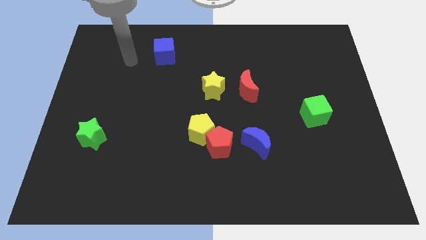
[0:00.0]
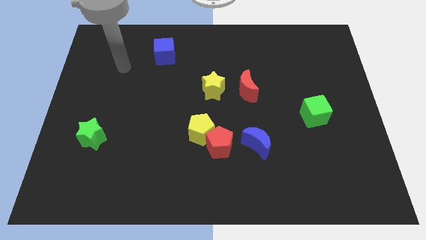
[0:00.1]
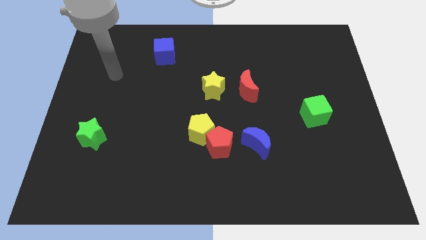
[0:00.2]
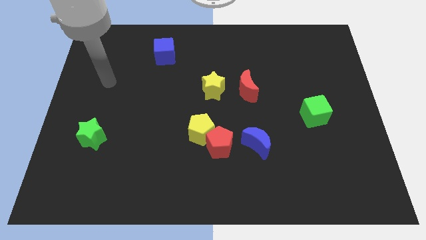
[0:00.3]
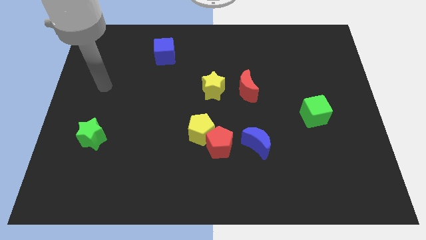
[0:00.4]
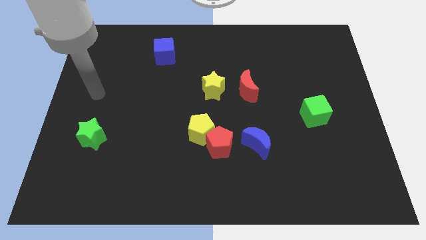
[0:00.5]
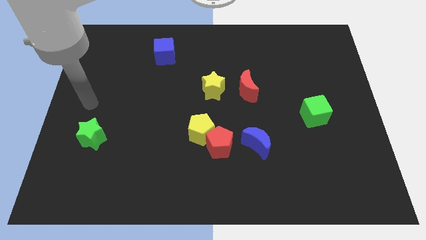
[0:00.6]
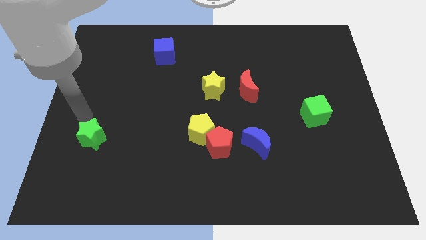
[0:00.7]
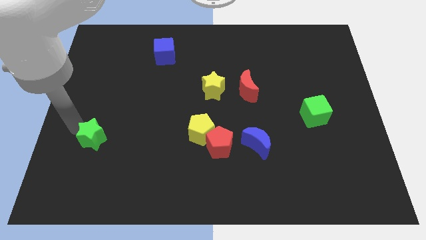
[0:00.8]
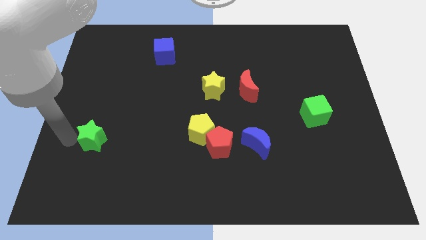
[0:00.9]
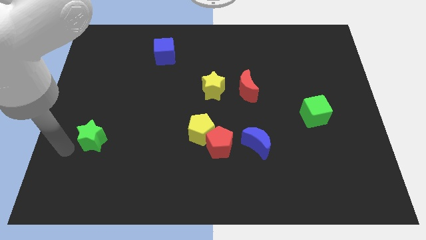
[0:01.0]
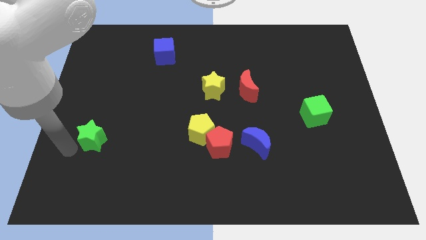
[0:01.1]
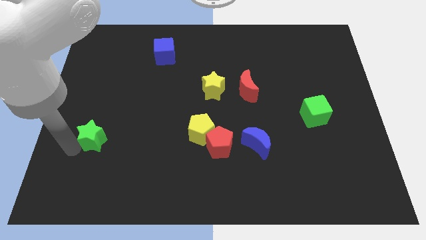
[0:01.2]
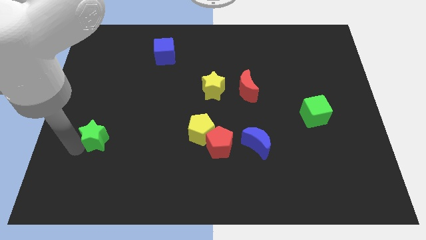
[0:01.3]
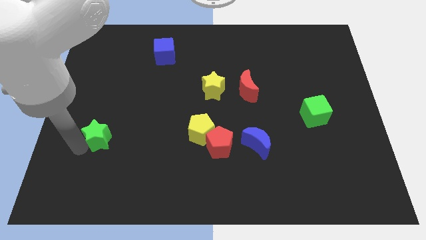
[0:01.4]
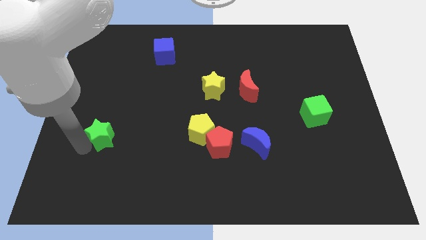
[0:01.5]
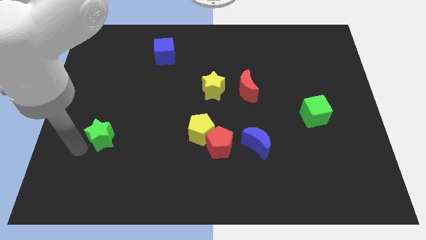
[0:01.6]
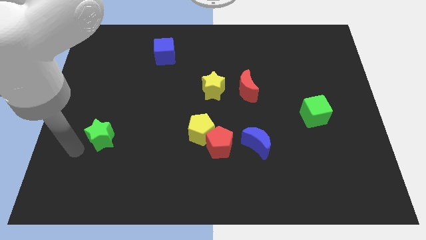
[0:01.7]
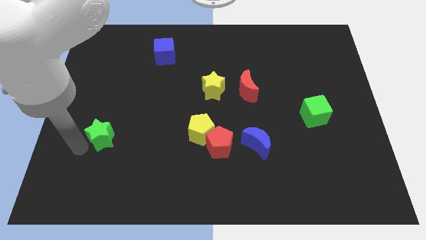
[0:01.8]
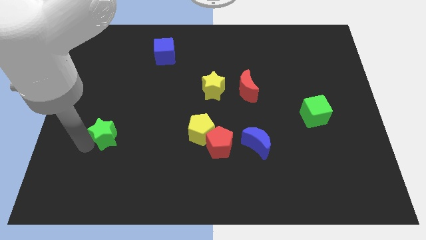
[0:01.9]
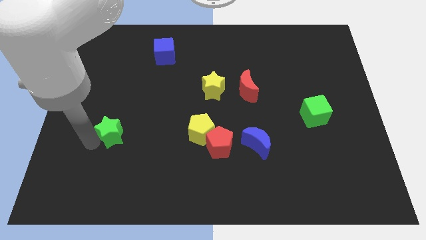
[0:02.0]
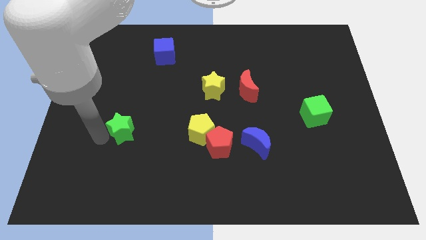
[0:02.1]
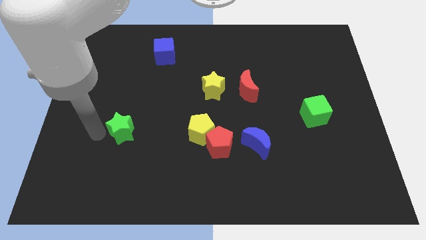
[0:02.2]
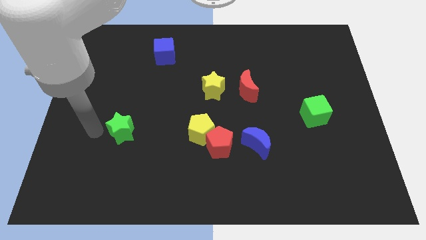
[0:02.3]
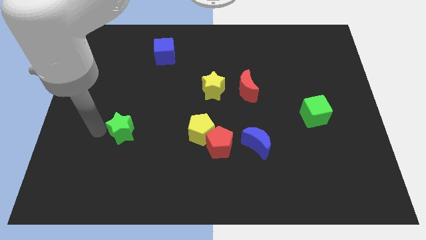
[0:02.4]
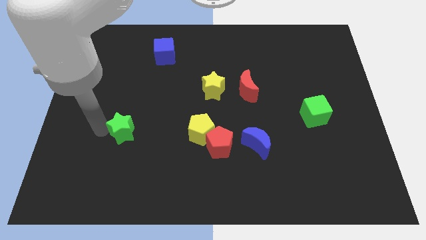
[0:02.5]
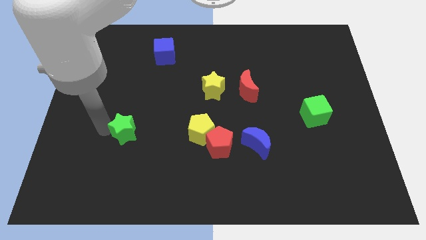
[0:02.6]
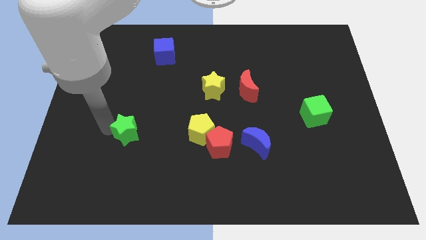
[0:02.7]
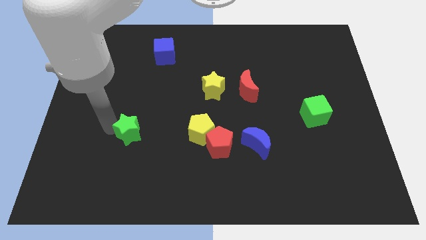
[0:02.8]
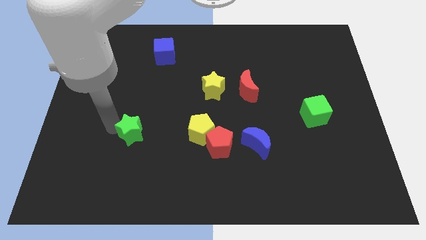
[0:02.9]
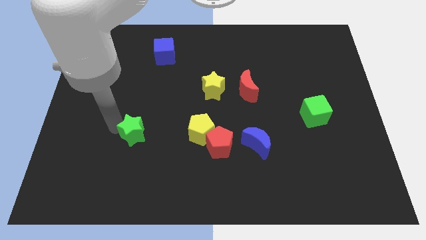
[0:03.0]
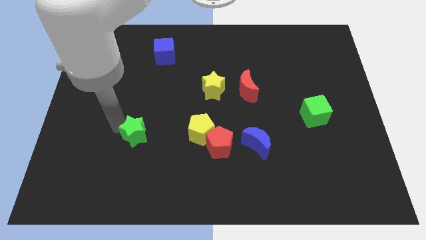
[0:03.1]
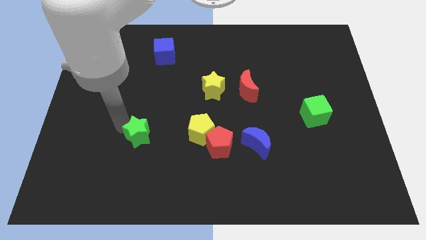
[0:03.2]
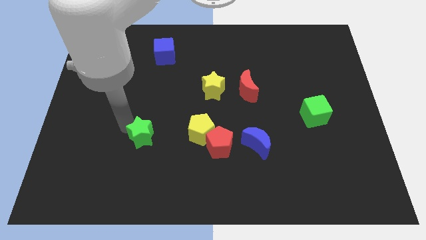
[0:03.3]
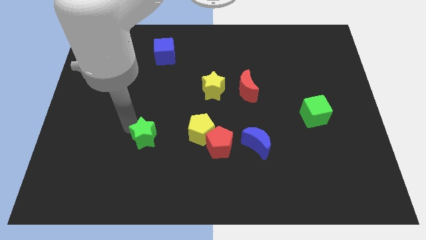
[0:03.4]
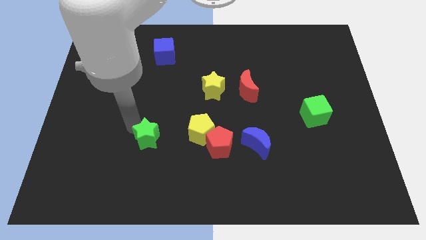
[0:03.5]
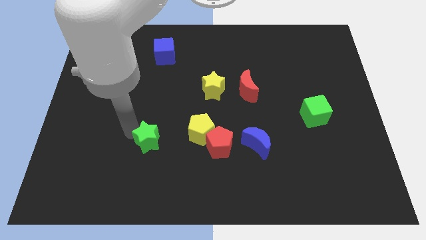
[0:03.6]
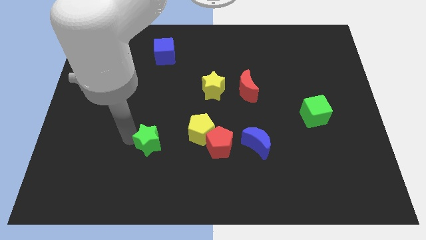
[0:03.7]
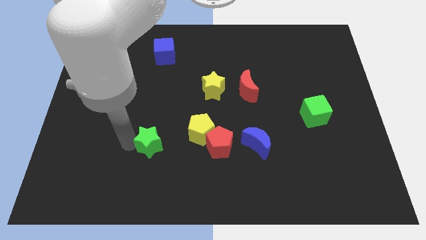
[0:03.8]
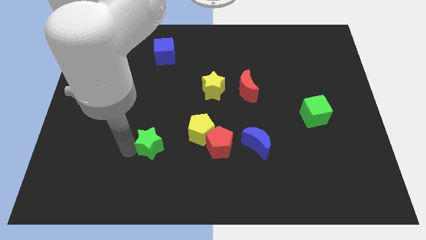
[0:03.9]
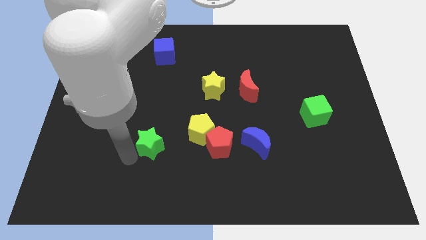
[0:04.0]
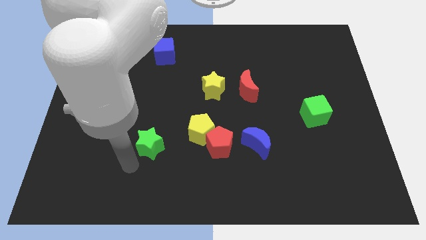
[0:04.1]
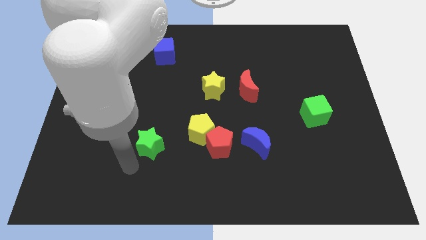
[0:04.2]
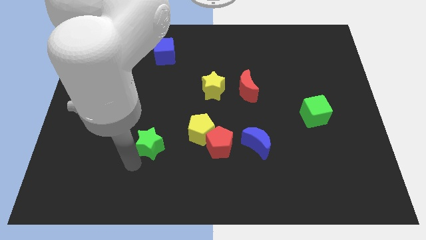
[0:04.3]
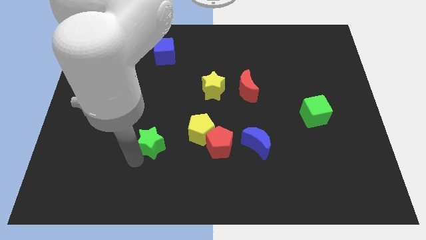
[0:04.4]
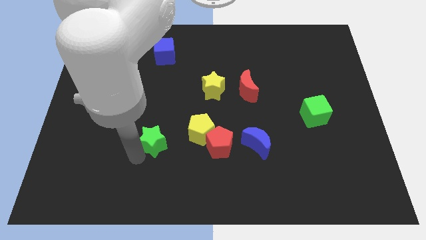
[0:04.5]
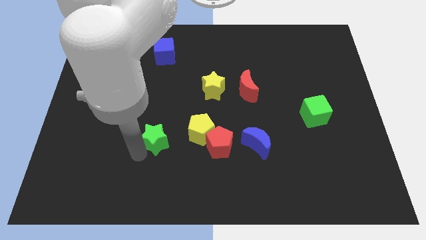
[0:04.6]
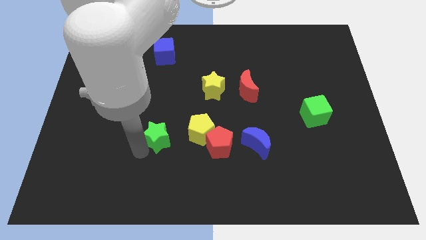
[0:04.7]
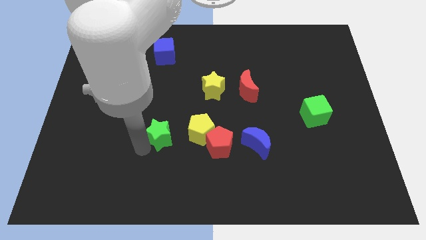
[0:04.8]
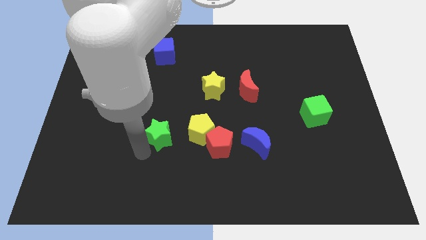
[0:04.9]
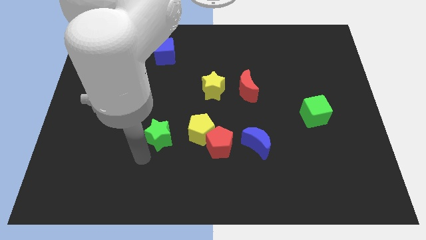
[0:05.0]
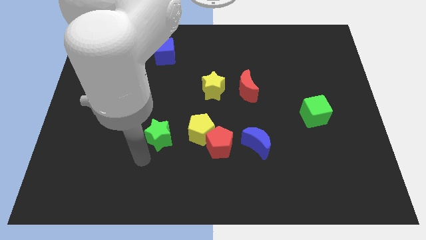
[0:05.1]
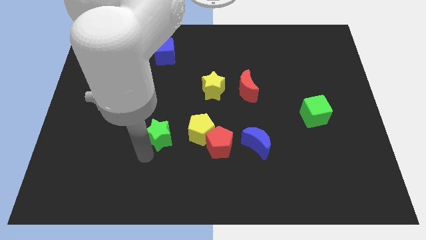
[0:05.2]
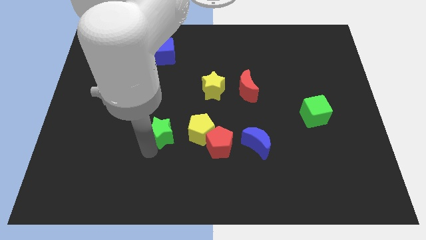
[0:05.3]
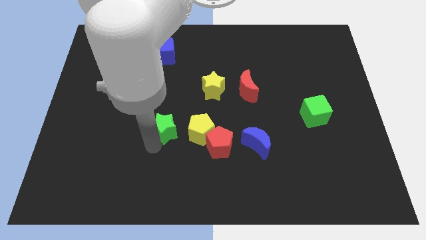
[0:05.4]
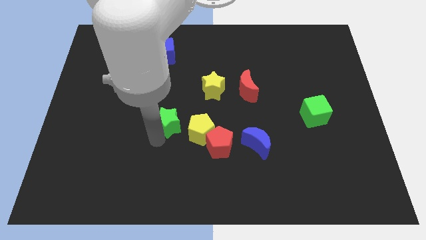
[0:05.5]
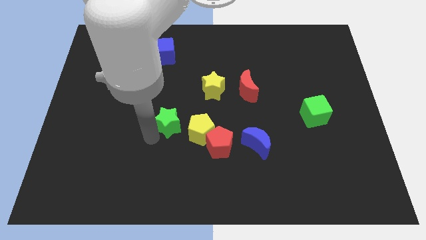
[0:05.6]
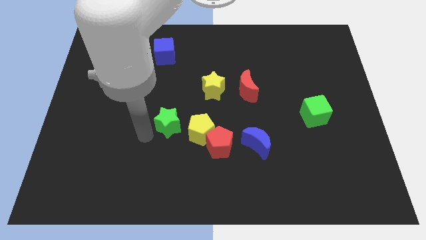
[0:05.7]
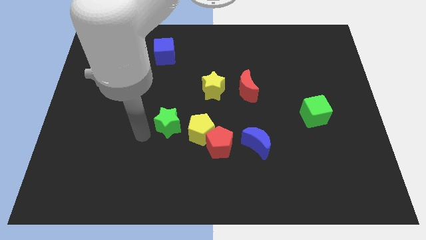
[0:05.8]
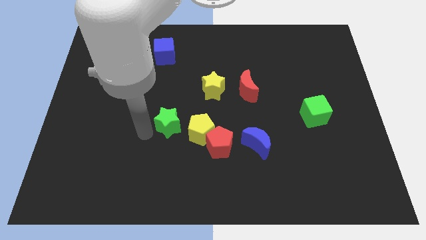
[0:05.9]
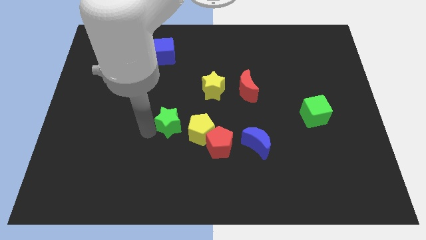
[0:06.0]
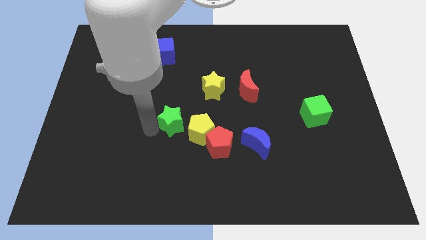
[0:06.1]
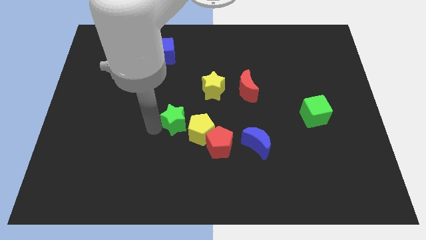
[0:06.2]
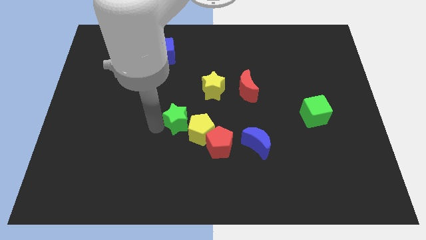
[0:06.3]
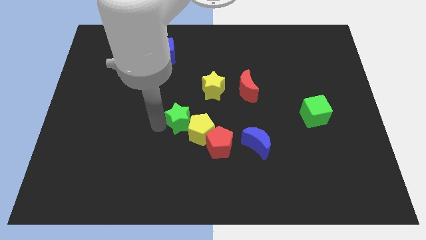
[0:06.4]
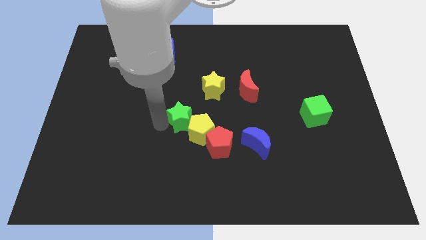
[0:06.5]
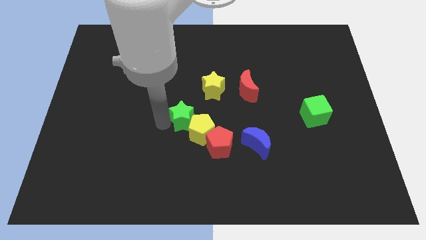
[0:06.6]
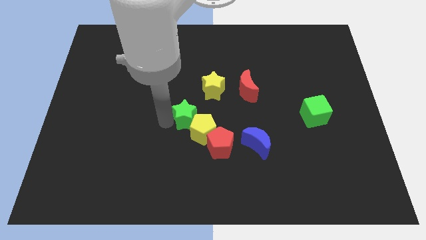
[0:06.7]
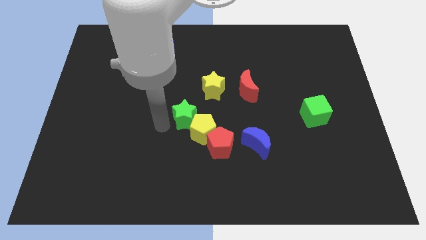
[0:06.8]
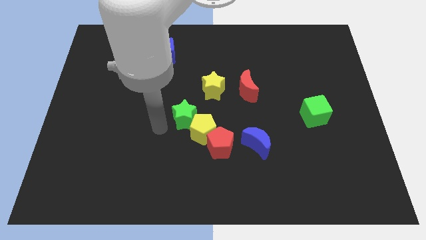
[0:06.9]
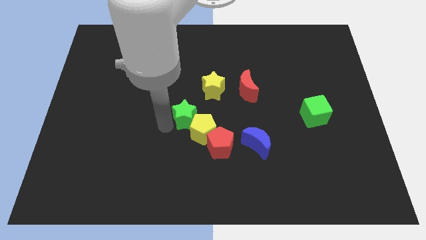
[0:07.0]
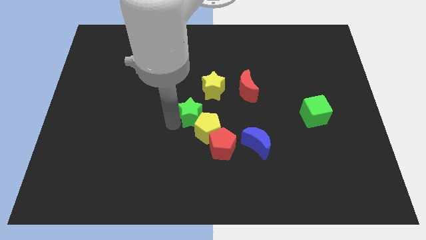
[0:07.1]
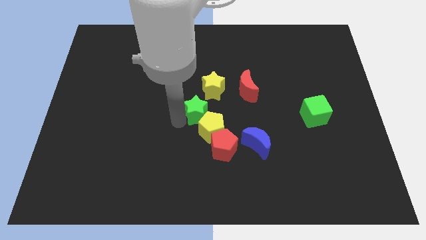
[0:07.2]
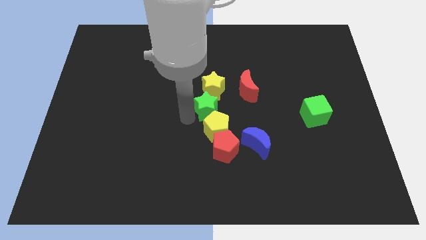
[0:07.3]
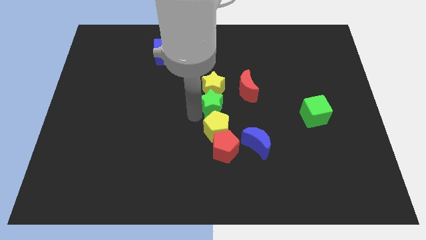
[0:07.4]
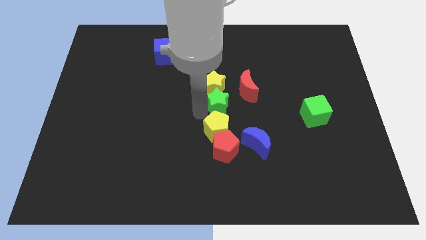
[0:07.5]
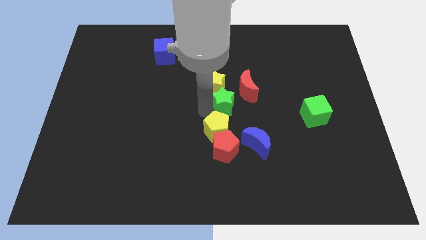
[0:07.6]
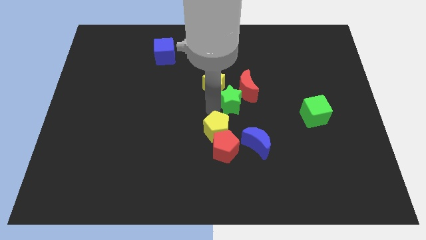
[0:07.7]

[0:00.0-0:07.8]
move the green star to the red moon
